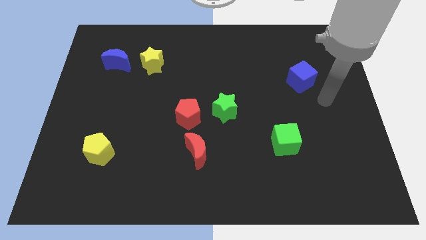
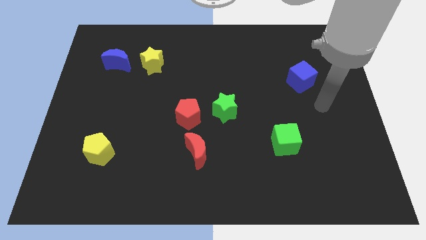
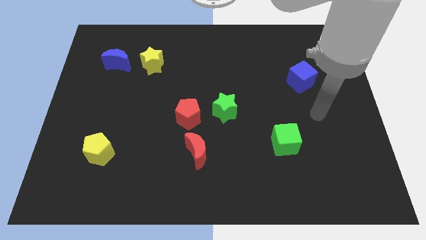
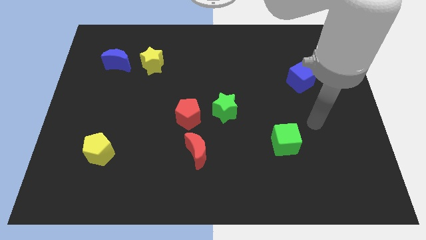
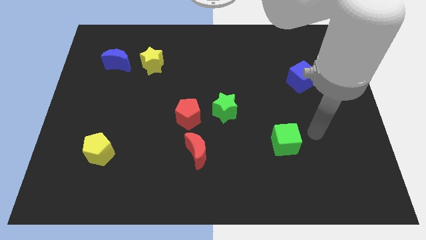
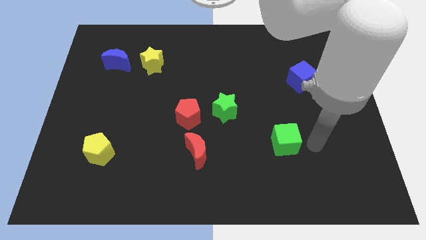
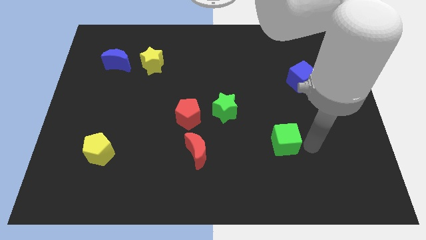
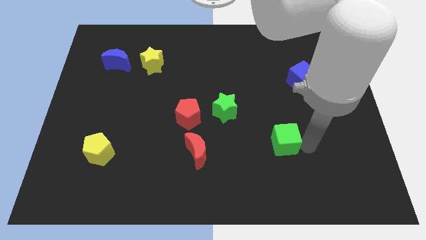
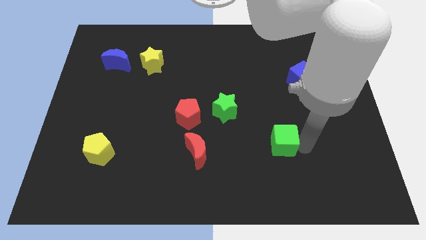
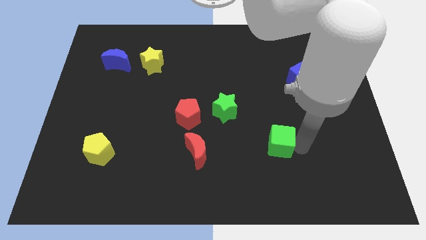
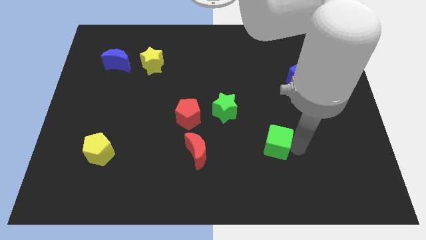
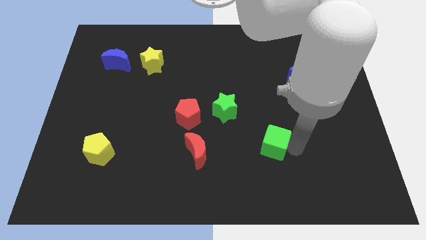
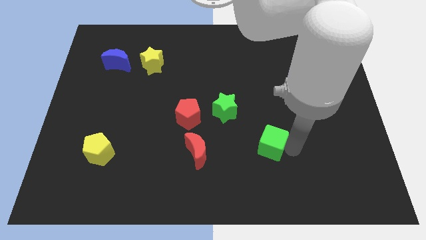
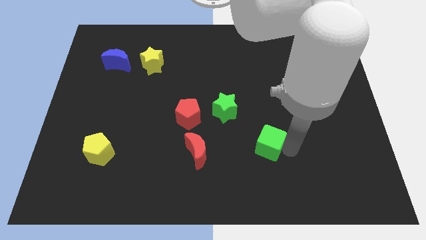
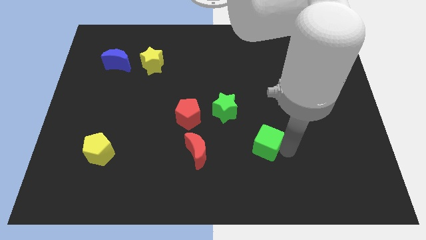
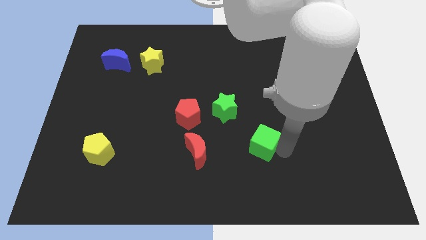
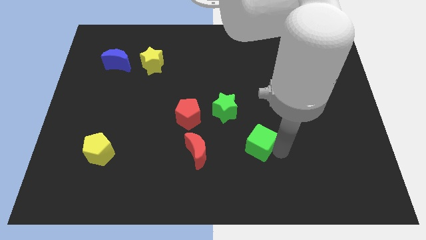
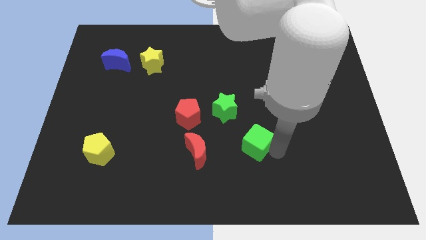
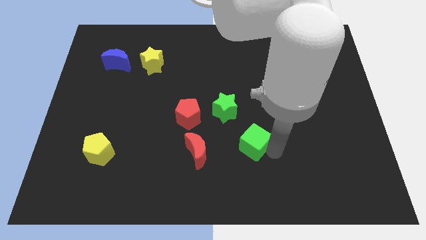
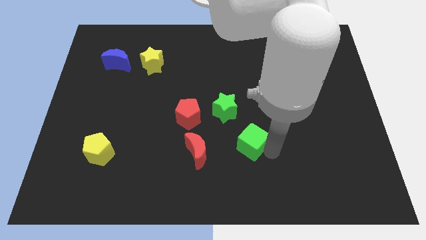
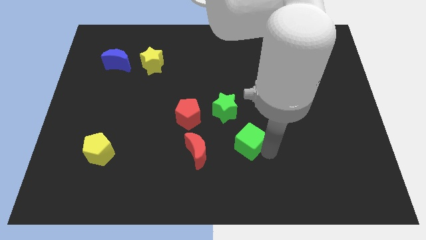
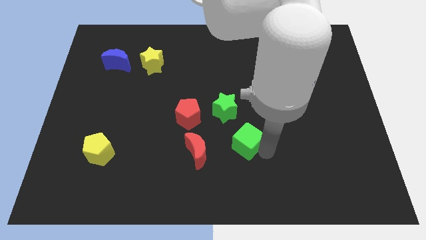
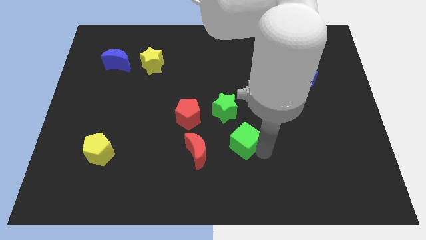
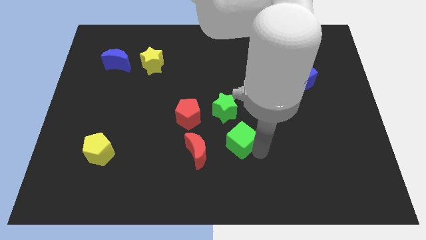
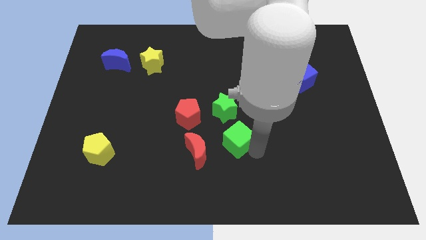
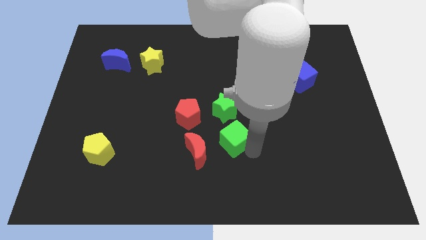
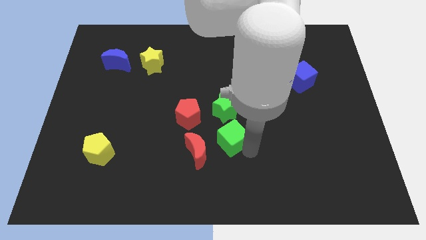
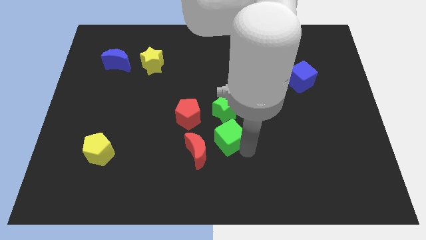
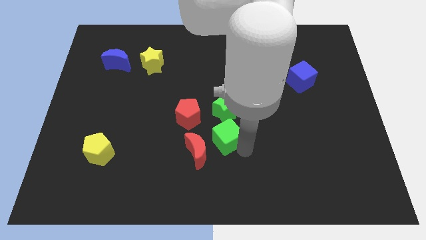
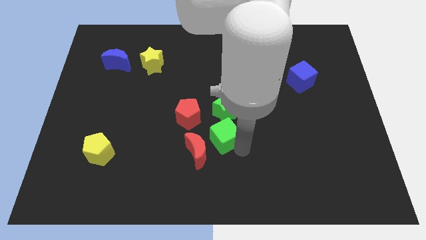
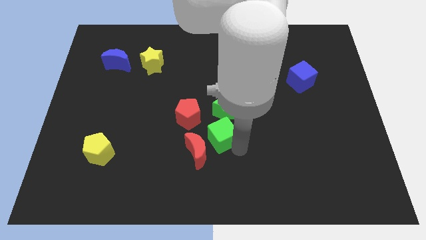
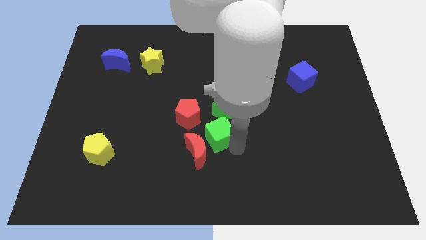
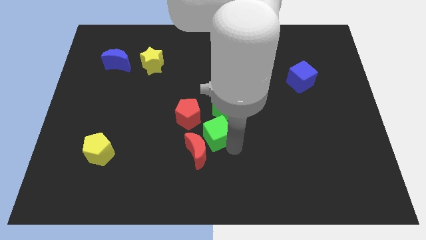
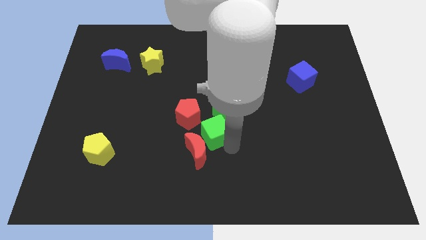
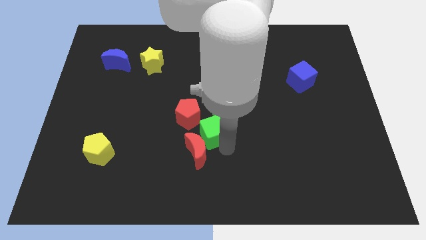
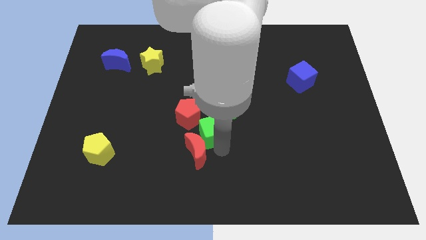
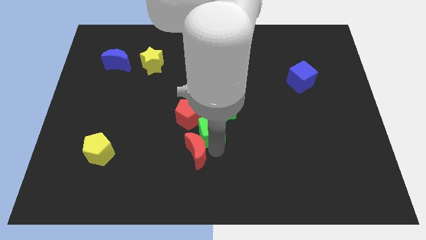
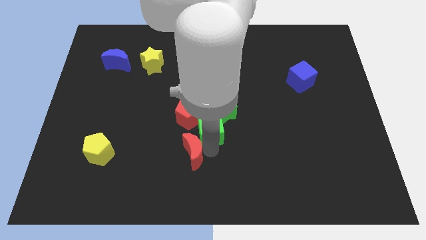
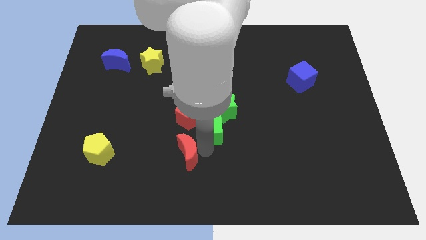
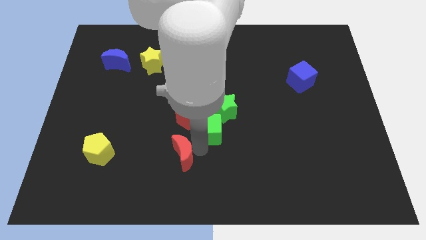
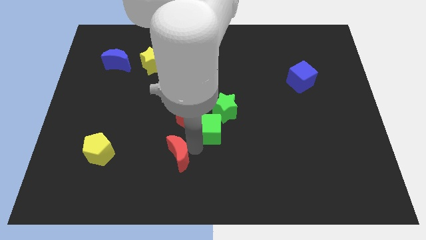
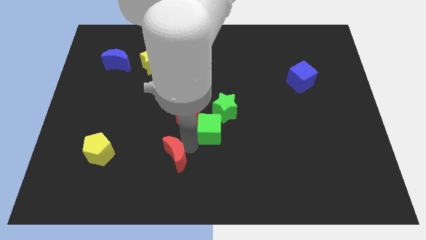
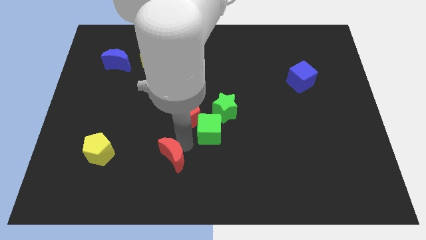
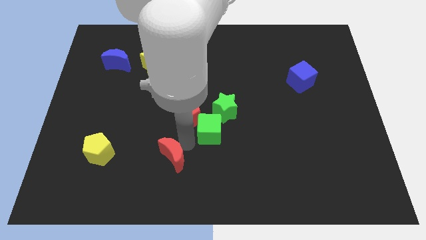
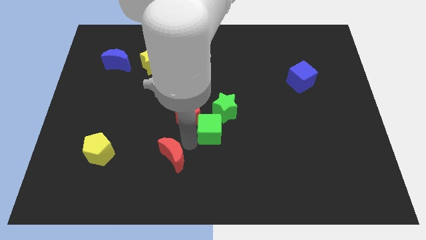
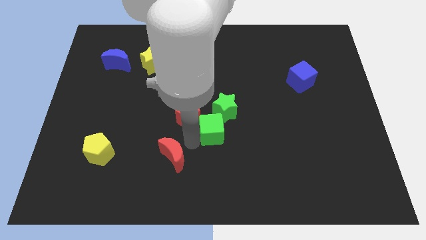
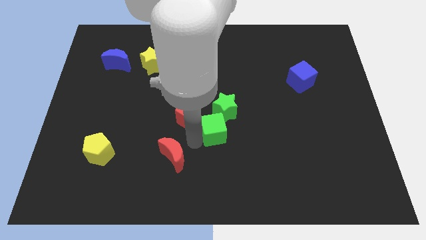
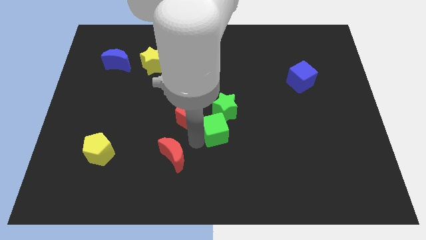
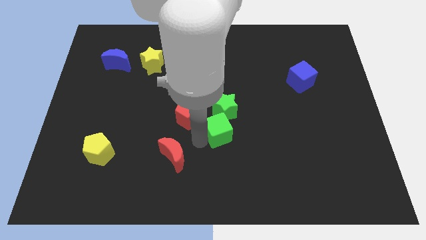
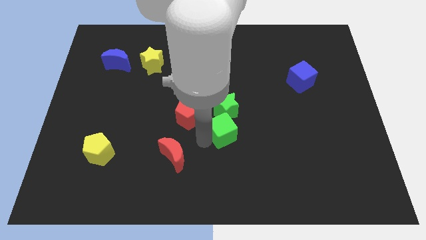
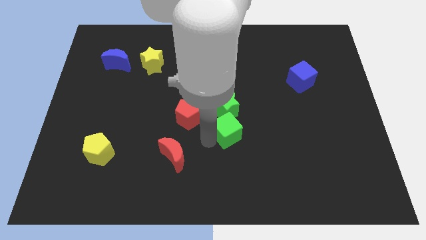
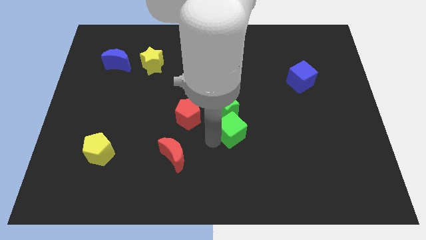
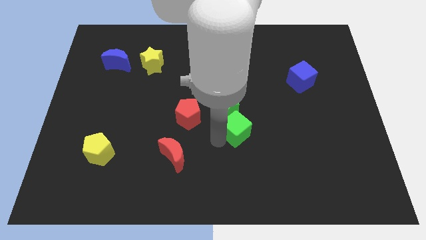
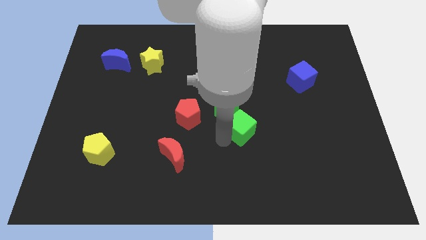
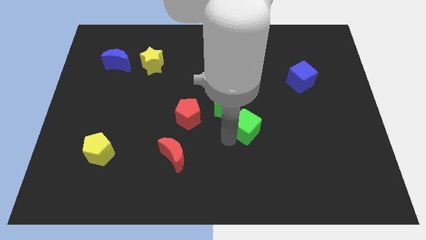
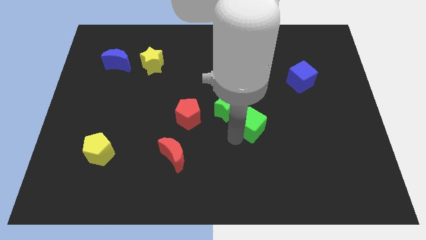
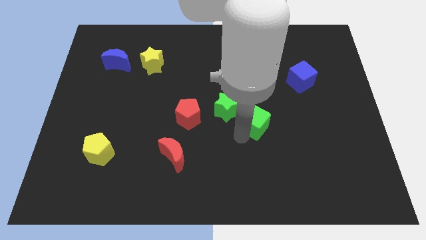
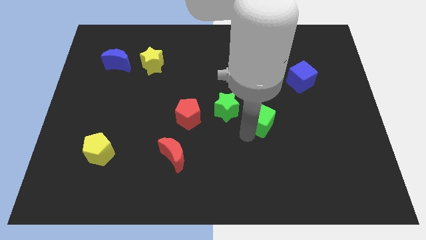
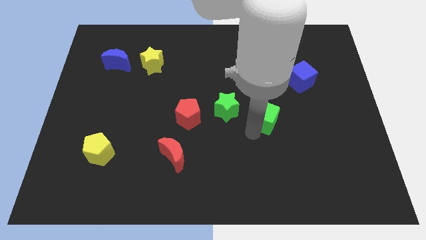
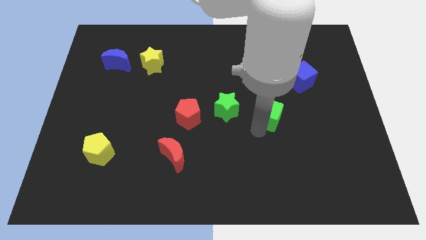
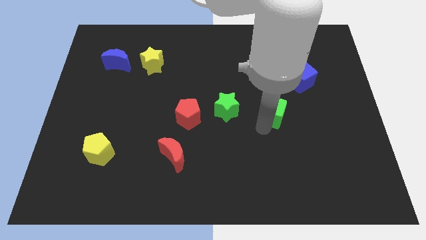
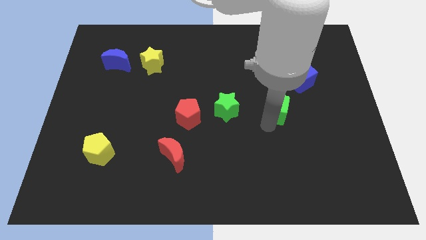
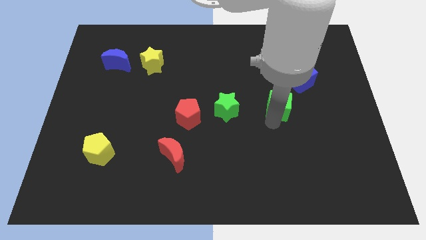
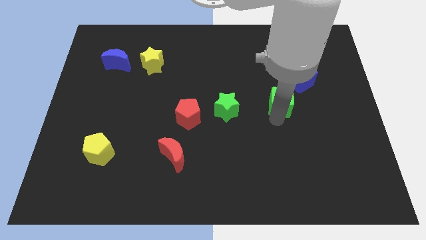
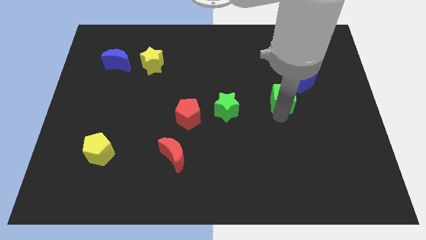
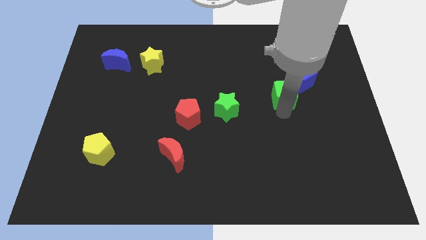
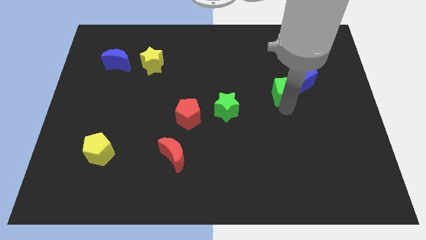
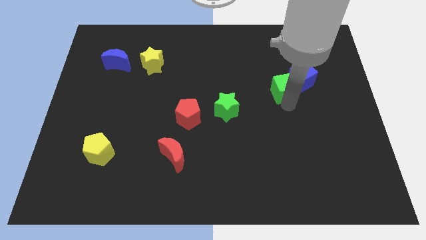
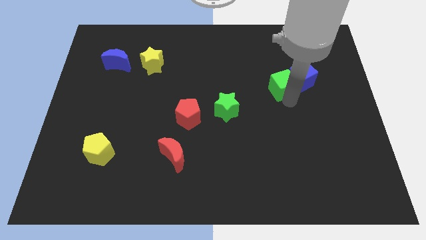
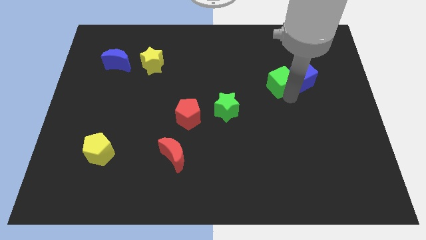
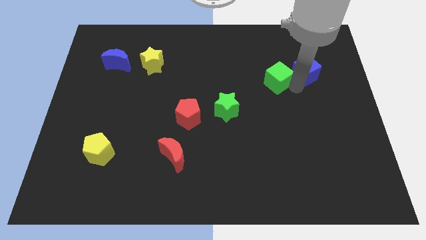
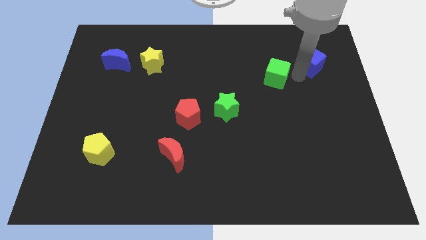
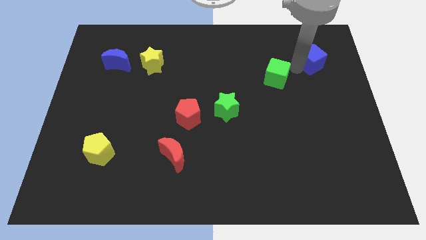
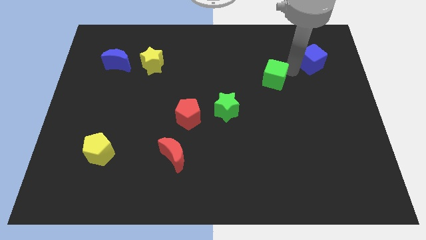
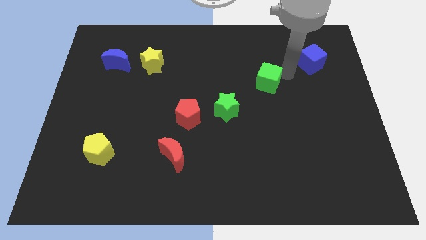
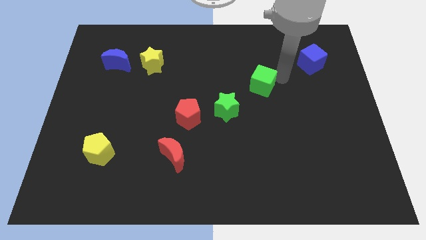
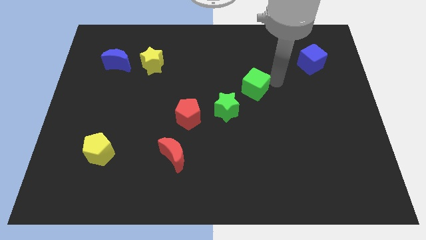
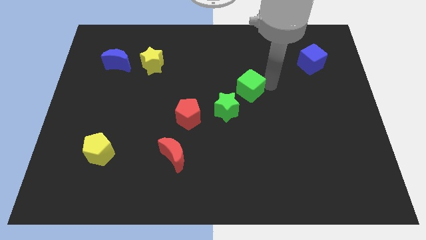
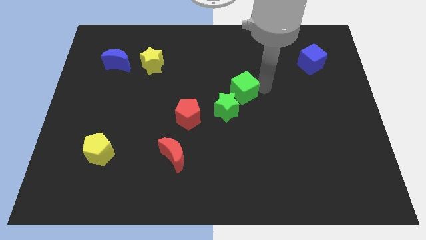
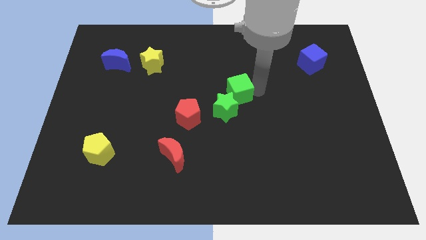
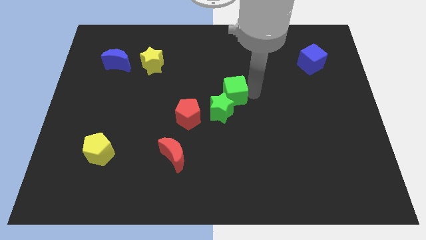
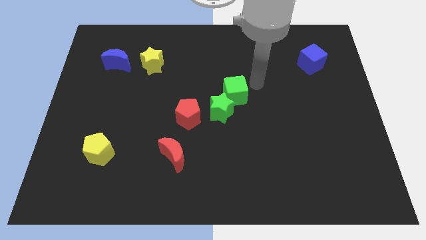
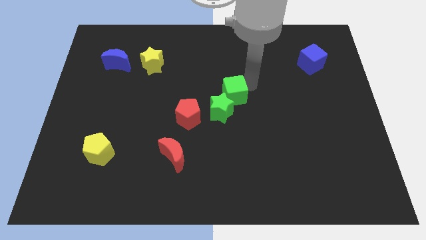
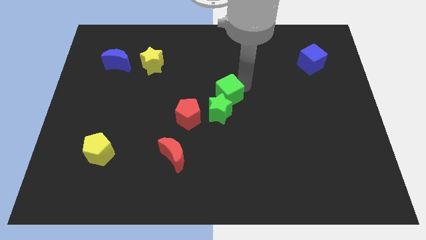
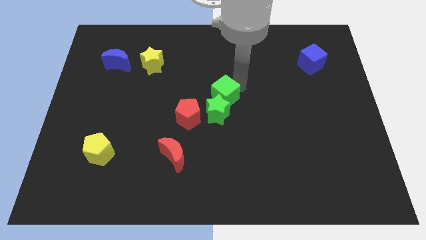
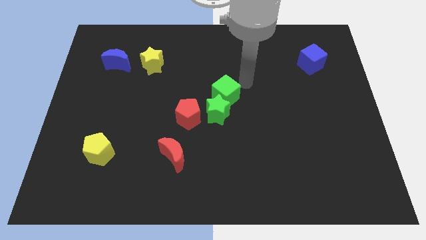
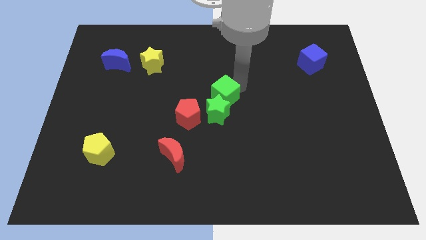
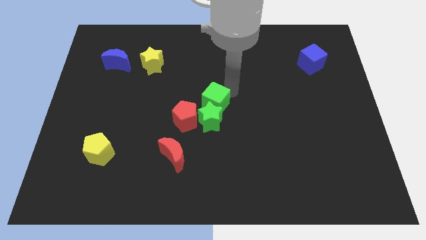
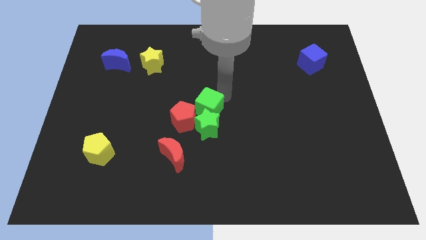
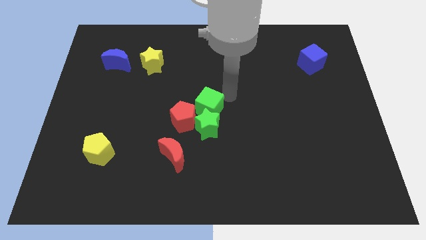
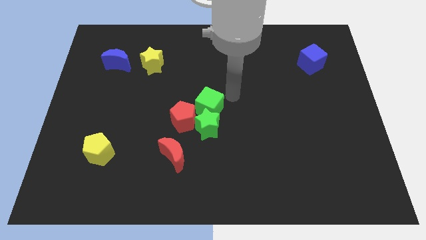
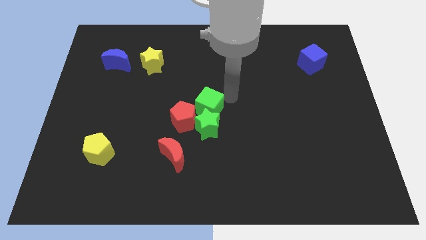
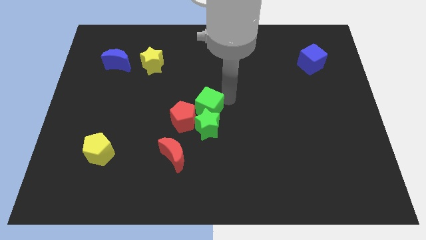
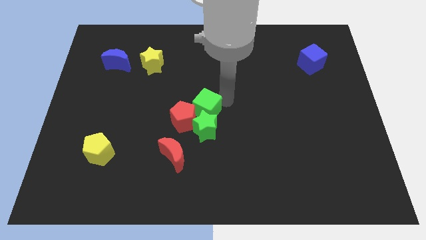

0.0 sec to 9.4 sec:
move the green cube close to the red pentagon
